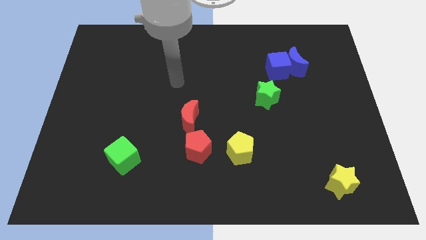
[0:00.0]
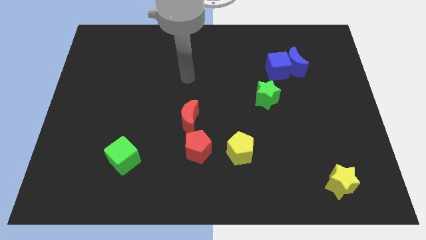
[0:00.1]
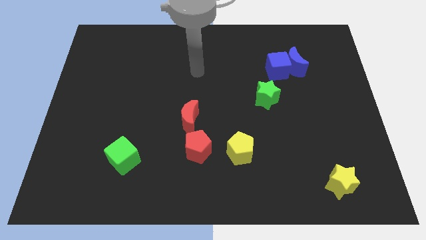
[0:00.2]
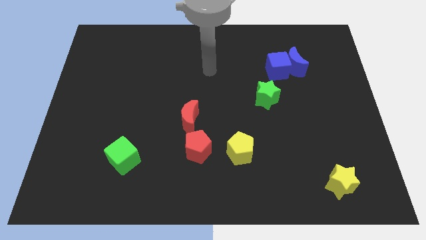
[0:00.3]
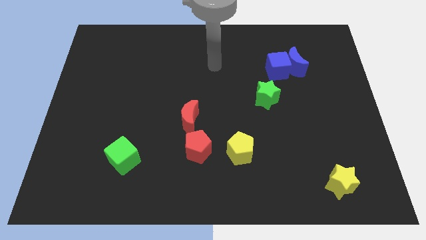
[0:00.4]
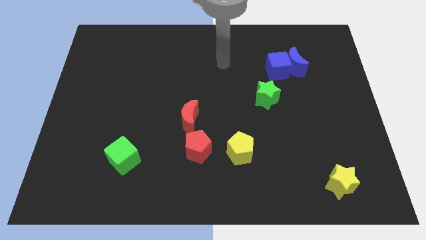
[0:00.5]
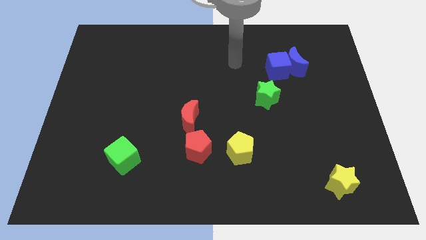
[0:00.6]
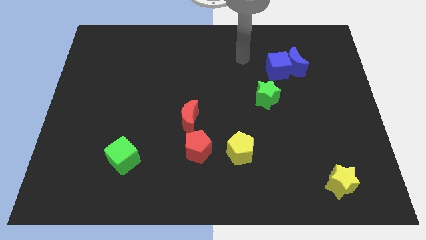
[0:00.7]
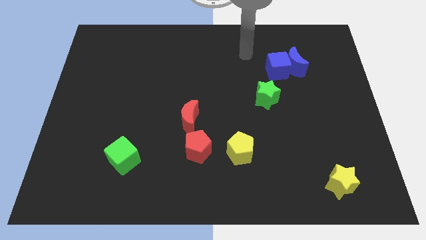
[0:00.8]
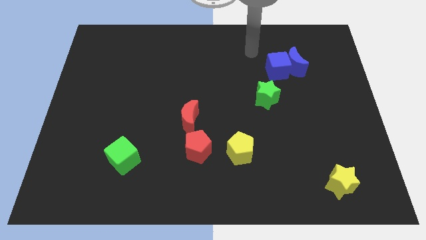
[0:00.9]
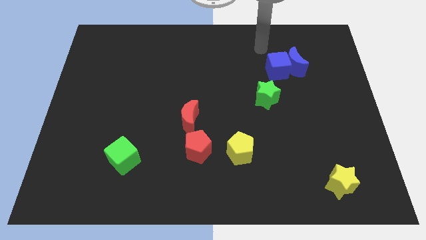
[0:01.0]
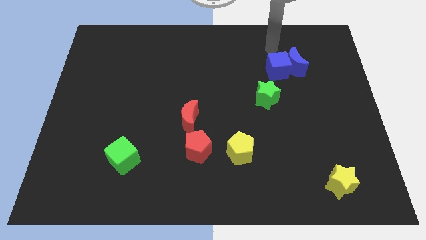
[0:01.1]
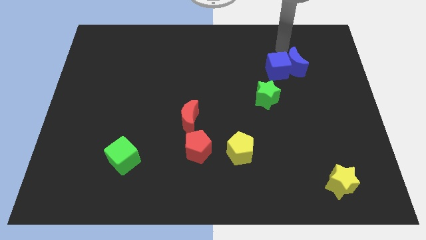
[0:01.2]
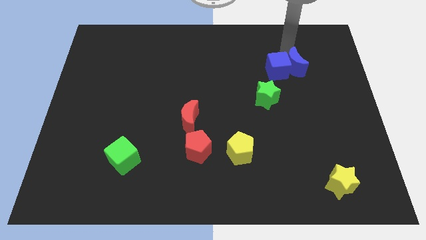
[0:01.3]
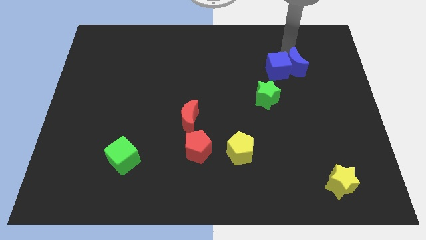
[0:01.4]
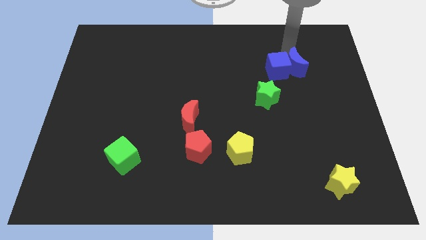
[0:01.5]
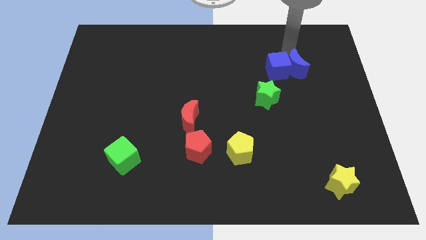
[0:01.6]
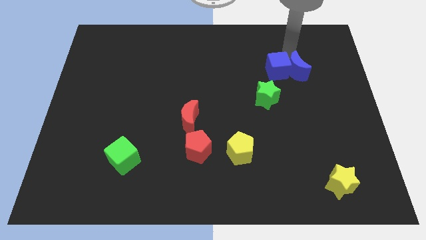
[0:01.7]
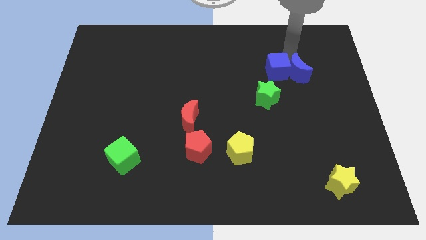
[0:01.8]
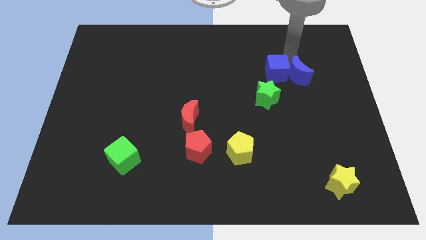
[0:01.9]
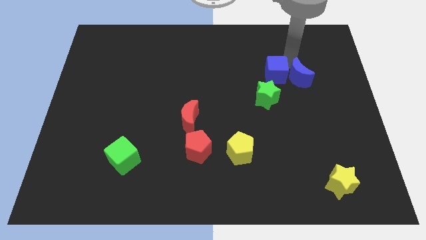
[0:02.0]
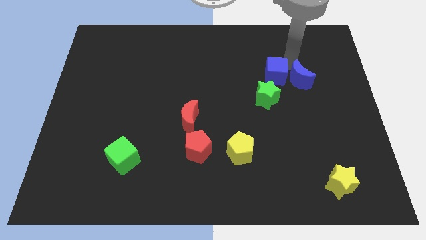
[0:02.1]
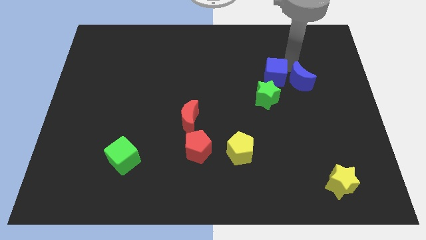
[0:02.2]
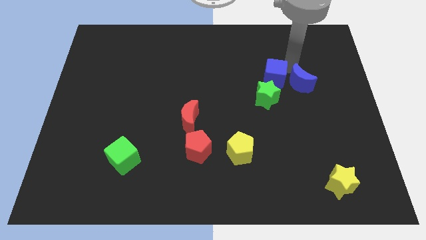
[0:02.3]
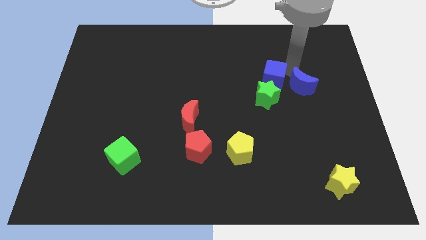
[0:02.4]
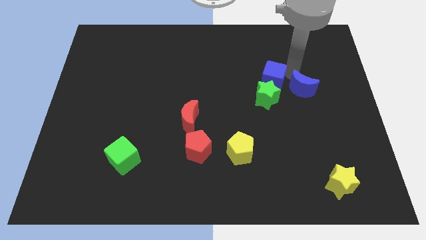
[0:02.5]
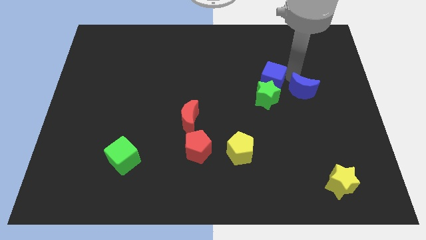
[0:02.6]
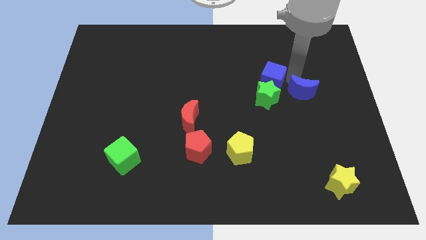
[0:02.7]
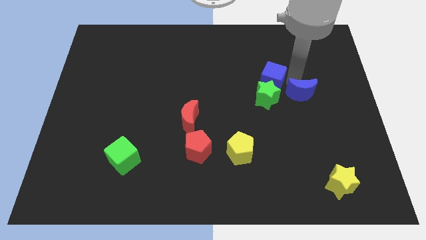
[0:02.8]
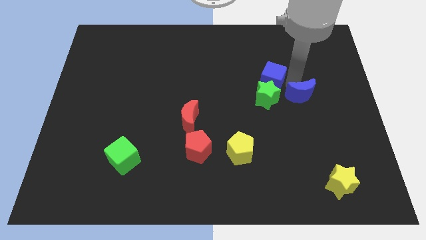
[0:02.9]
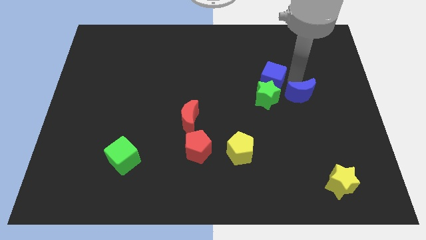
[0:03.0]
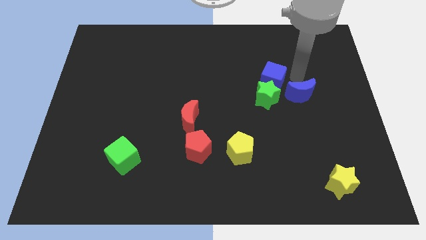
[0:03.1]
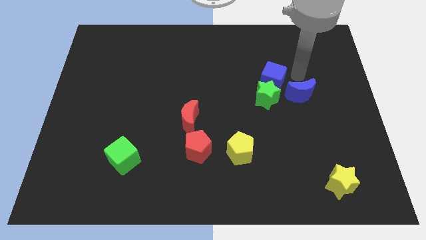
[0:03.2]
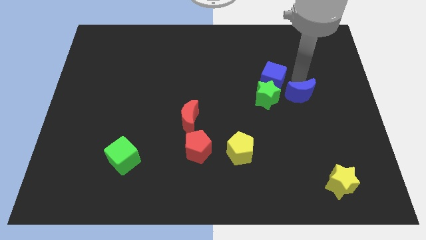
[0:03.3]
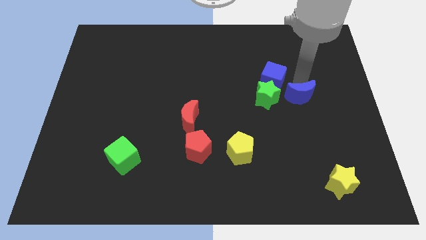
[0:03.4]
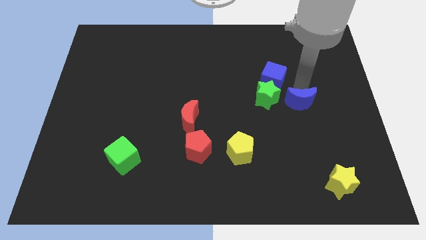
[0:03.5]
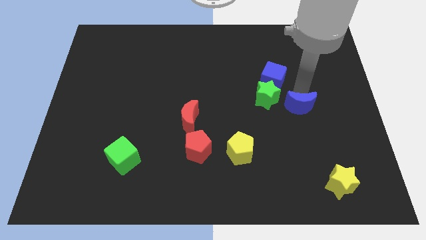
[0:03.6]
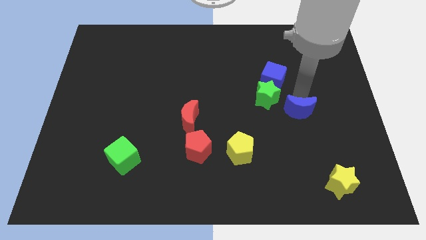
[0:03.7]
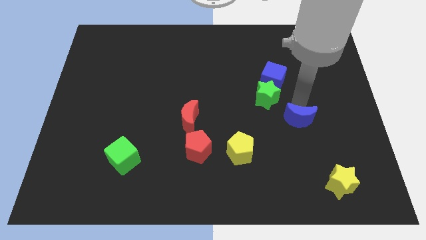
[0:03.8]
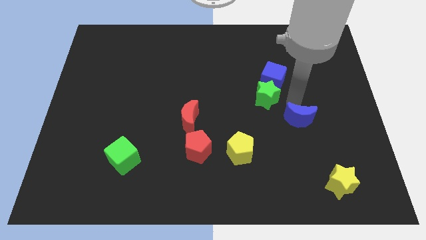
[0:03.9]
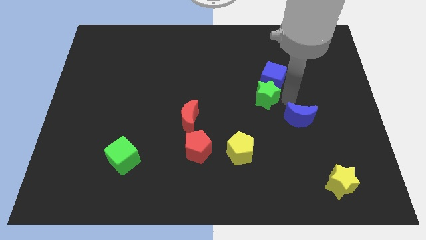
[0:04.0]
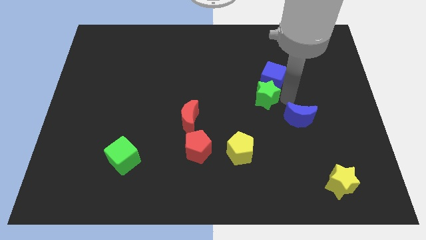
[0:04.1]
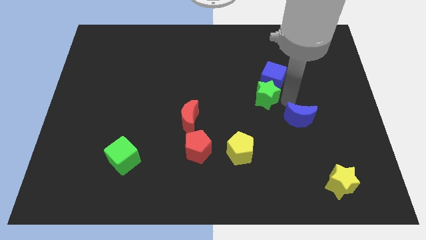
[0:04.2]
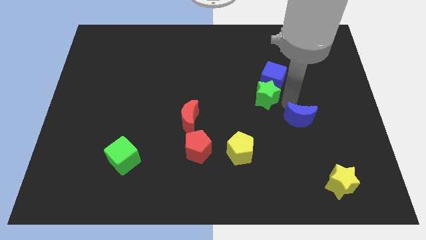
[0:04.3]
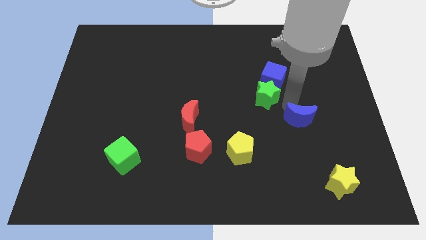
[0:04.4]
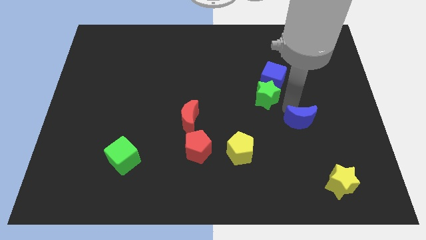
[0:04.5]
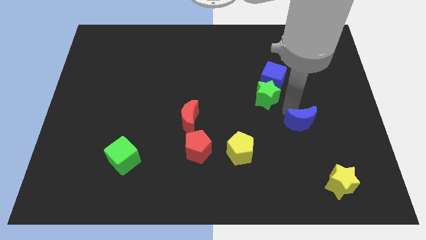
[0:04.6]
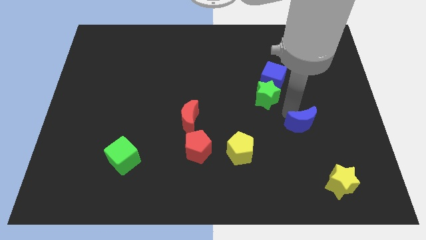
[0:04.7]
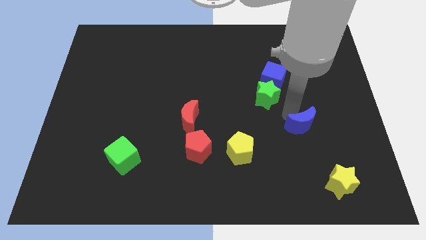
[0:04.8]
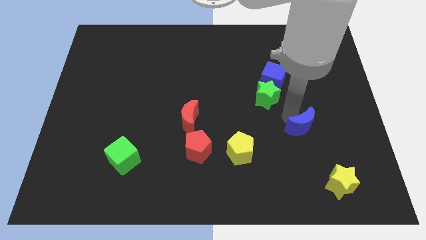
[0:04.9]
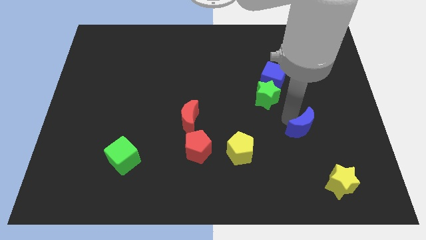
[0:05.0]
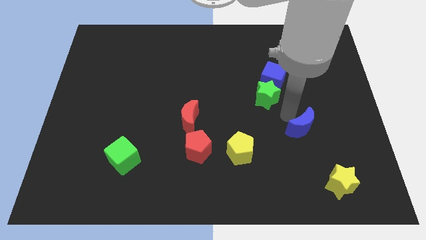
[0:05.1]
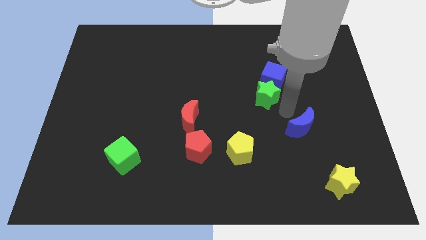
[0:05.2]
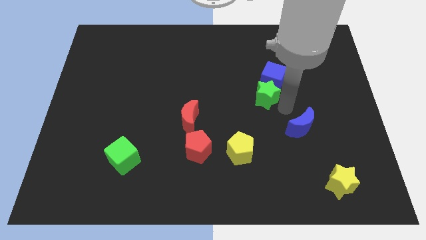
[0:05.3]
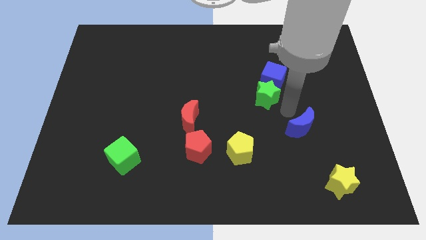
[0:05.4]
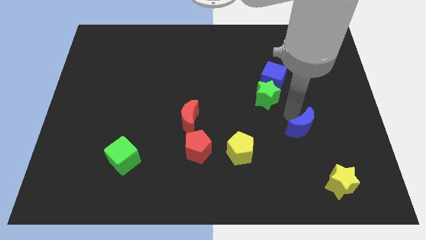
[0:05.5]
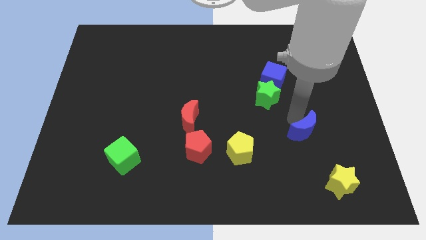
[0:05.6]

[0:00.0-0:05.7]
slide the blue moon down

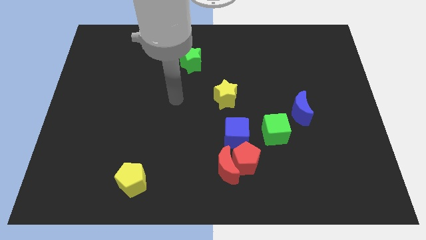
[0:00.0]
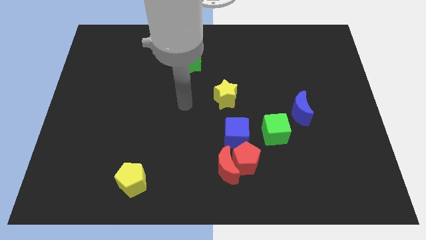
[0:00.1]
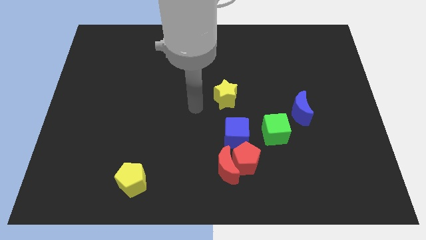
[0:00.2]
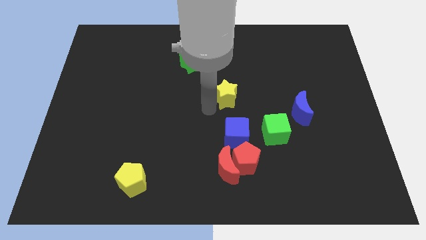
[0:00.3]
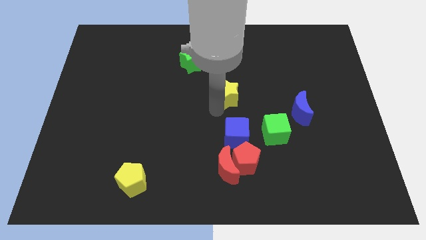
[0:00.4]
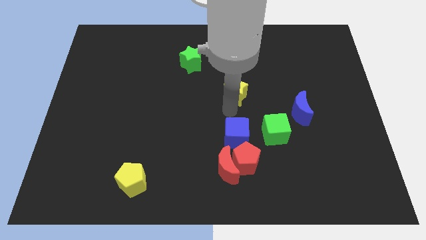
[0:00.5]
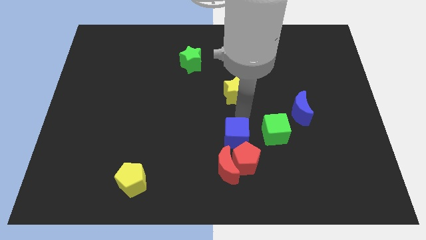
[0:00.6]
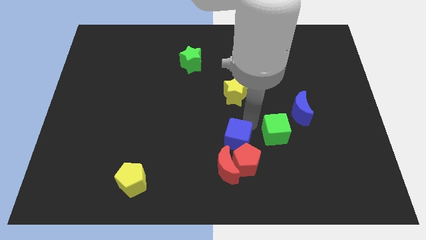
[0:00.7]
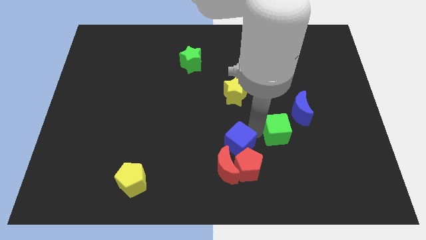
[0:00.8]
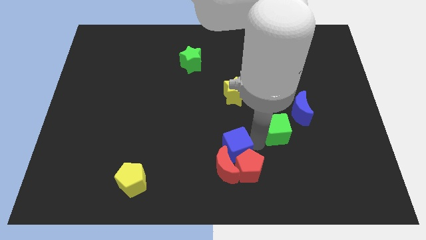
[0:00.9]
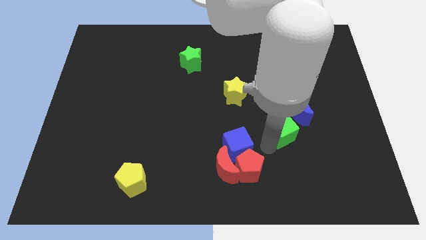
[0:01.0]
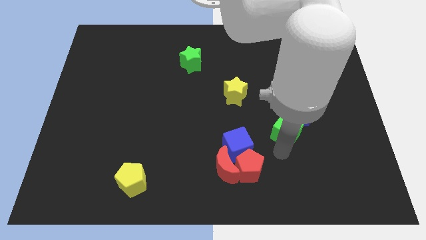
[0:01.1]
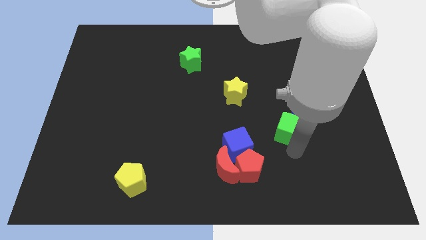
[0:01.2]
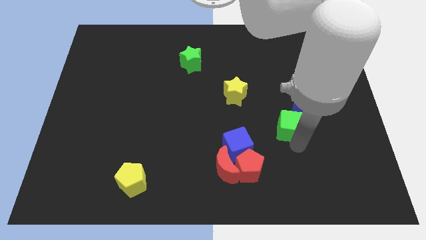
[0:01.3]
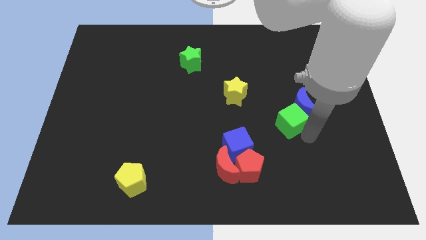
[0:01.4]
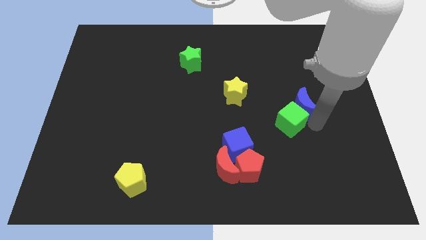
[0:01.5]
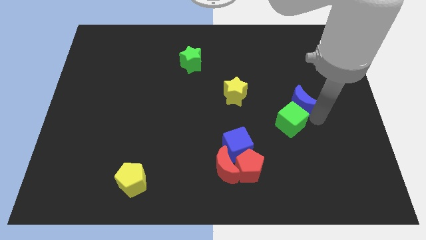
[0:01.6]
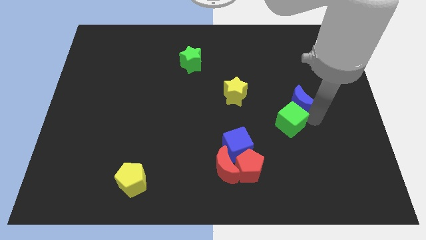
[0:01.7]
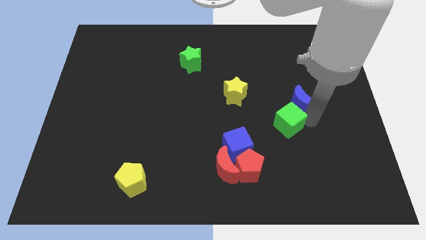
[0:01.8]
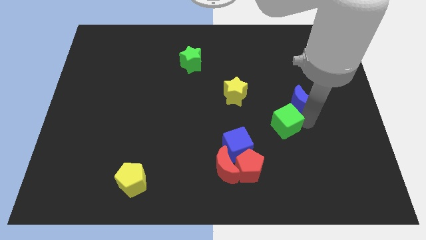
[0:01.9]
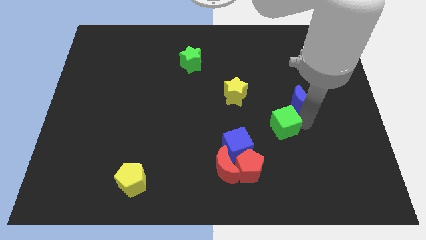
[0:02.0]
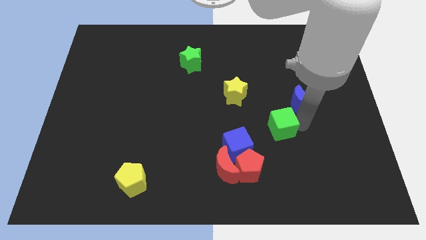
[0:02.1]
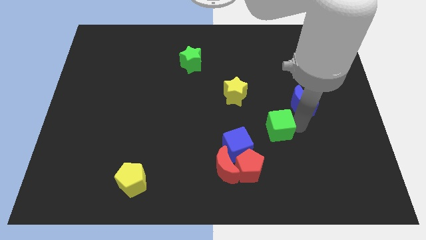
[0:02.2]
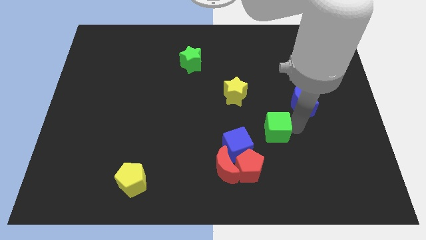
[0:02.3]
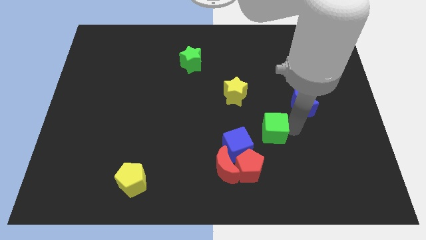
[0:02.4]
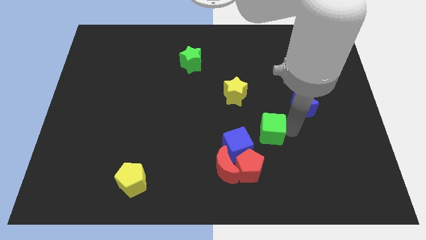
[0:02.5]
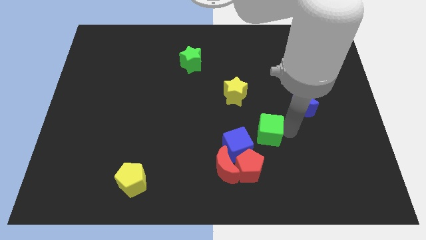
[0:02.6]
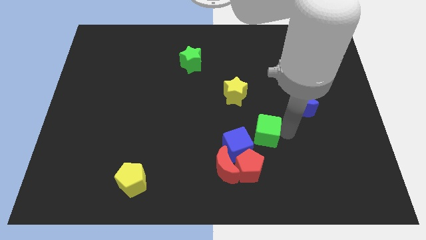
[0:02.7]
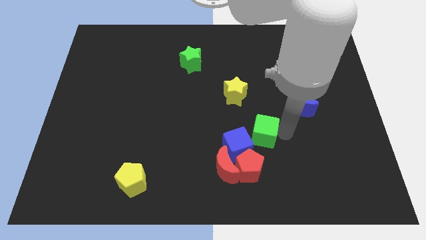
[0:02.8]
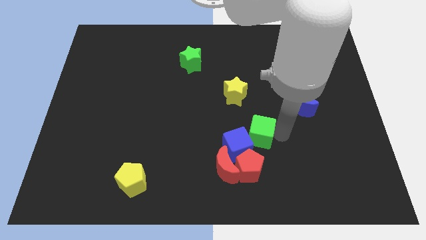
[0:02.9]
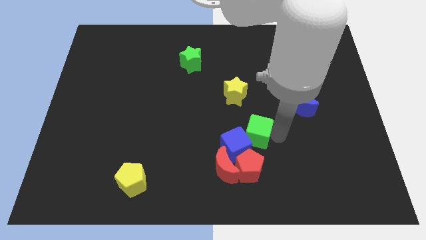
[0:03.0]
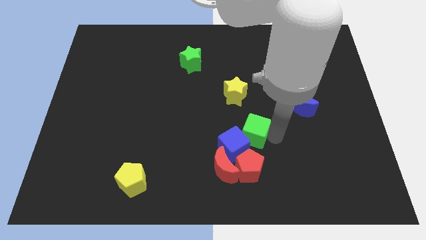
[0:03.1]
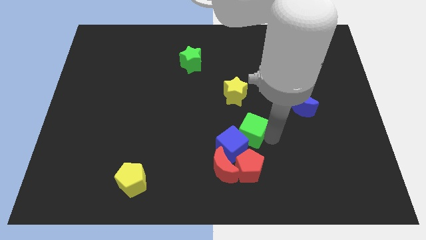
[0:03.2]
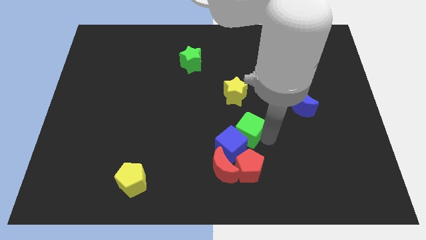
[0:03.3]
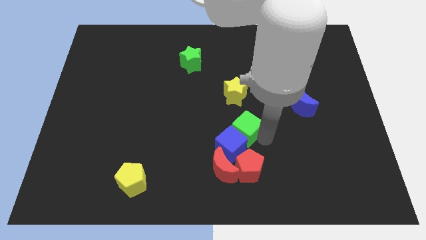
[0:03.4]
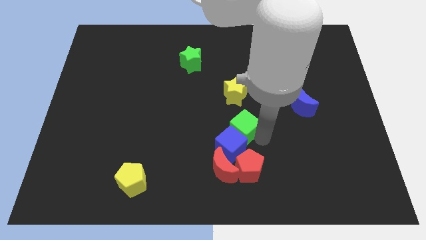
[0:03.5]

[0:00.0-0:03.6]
move the green cube a little bit to the left
